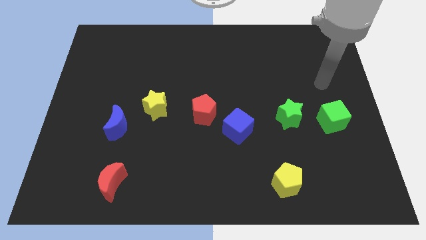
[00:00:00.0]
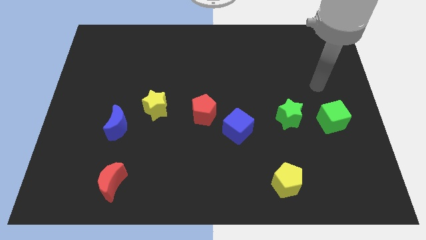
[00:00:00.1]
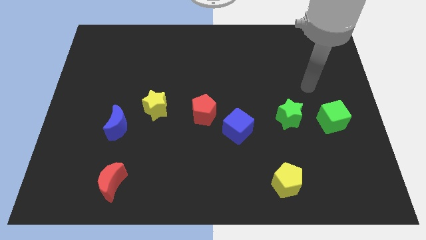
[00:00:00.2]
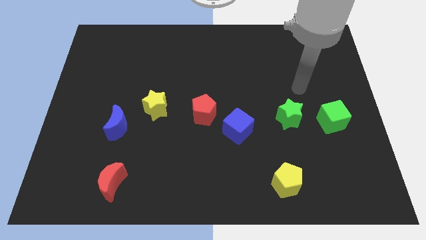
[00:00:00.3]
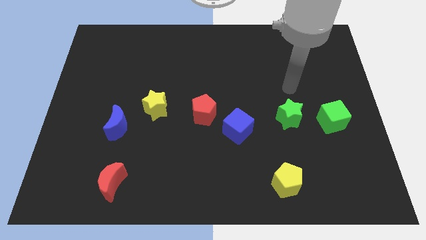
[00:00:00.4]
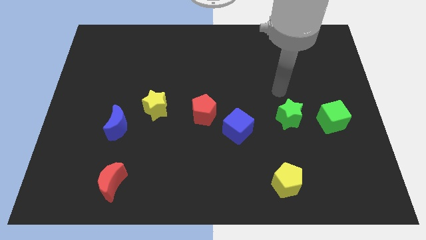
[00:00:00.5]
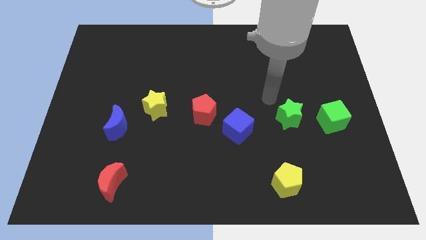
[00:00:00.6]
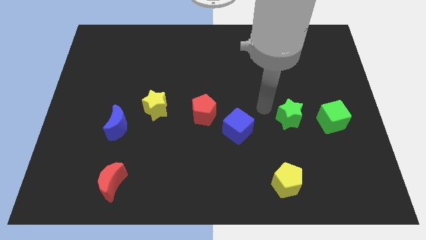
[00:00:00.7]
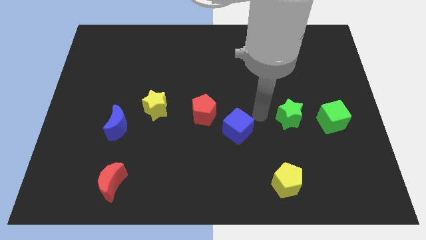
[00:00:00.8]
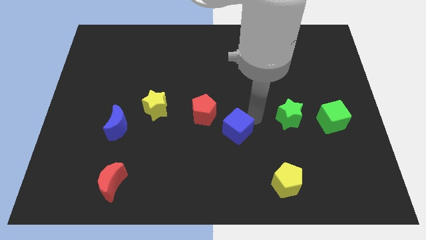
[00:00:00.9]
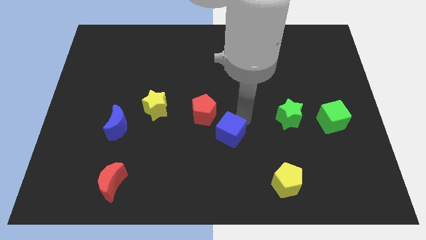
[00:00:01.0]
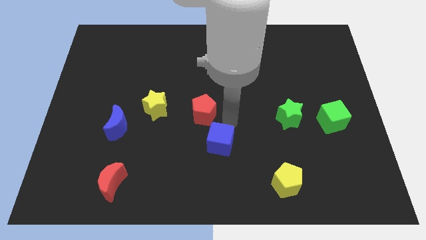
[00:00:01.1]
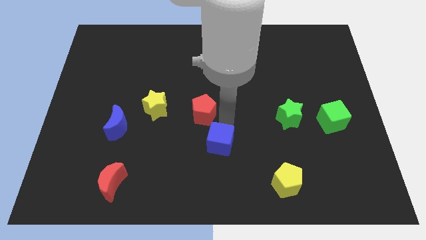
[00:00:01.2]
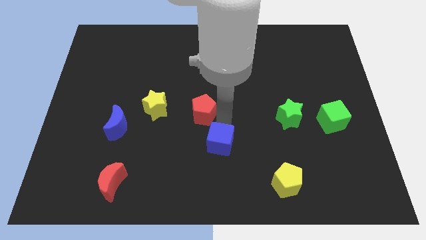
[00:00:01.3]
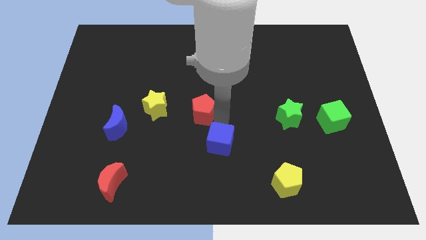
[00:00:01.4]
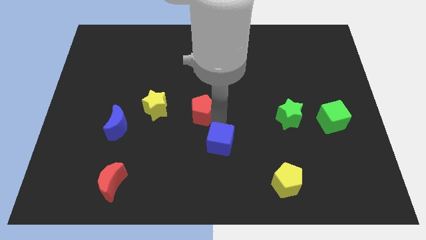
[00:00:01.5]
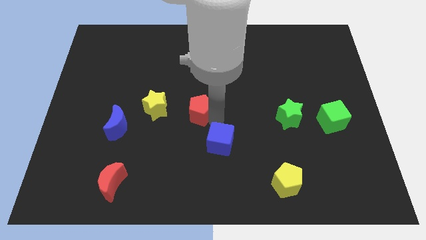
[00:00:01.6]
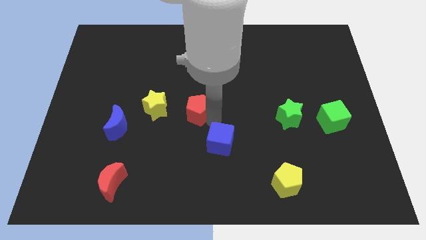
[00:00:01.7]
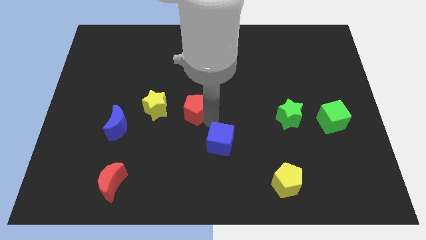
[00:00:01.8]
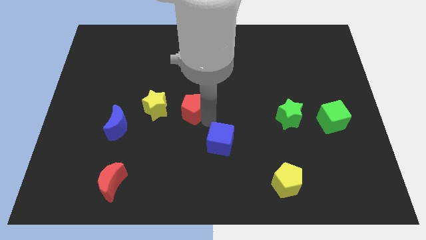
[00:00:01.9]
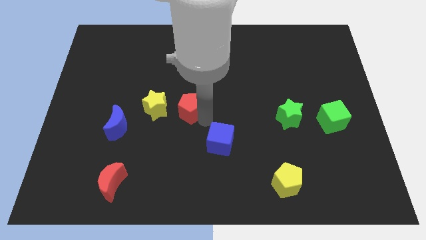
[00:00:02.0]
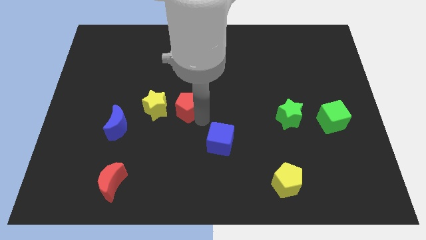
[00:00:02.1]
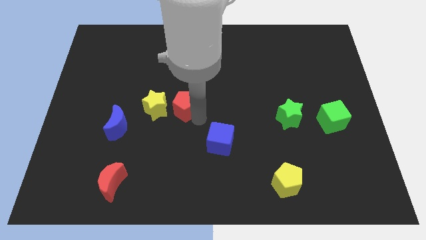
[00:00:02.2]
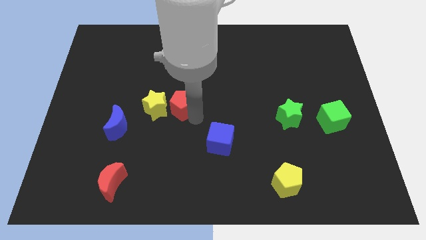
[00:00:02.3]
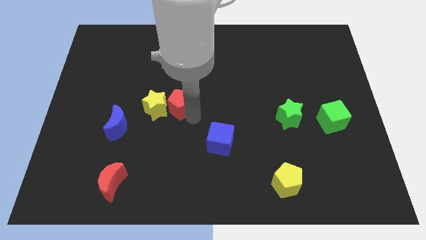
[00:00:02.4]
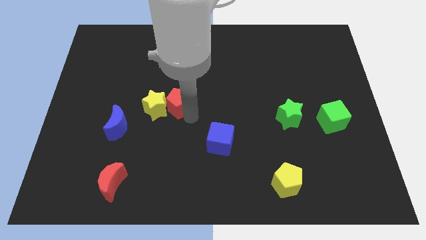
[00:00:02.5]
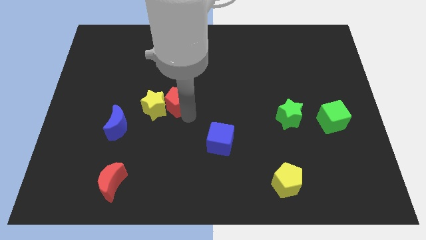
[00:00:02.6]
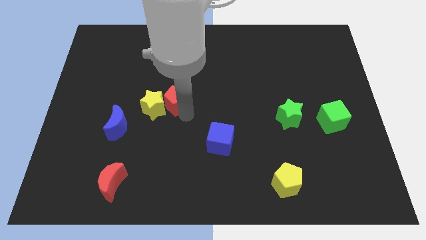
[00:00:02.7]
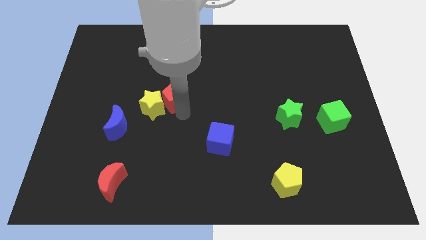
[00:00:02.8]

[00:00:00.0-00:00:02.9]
slide the red pentagon up and left diagonally somewhat

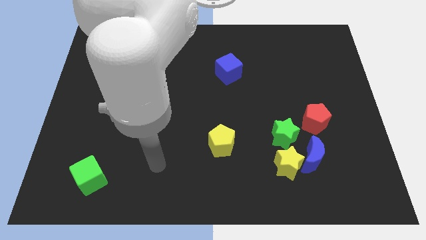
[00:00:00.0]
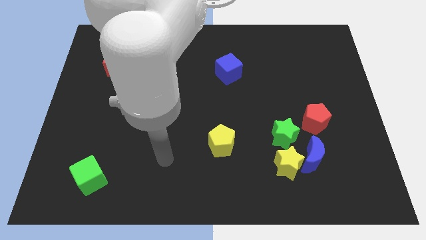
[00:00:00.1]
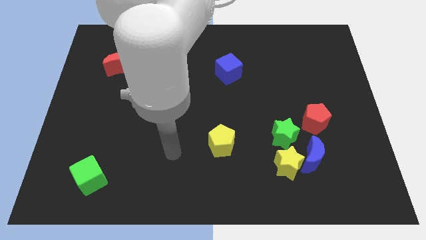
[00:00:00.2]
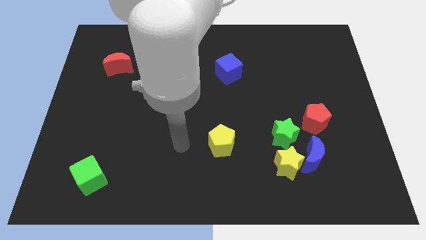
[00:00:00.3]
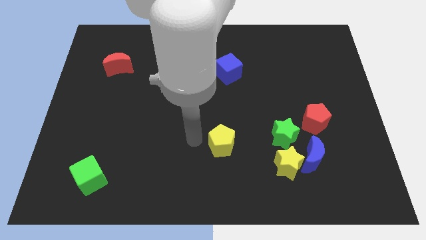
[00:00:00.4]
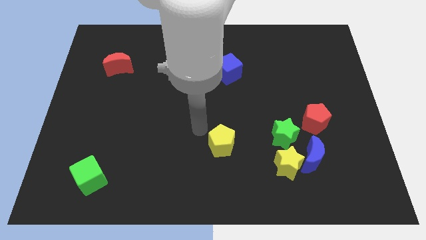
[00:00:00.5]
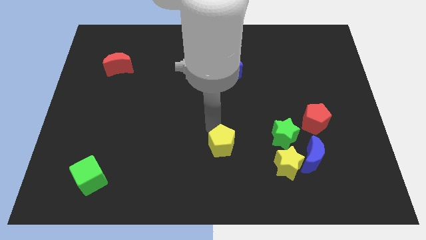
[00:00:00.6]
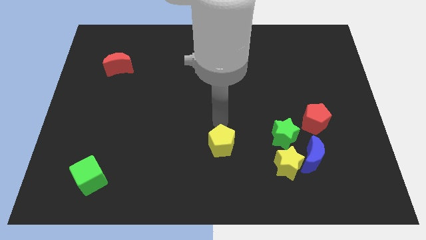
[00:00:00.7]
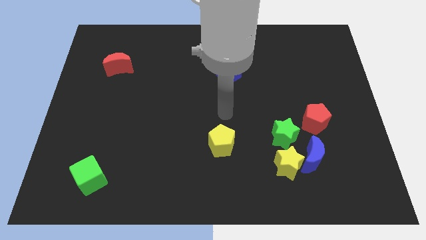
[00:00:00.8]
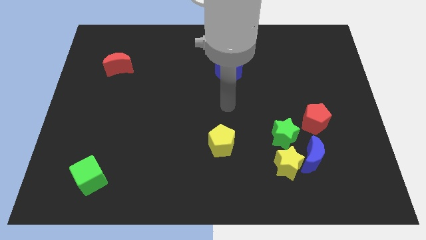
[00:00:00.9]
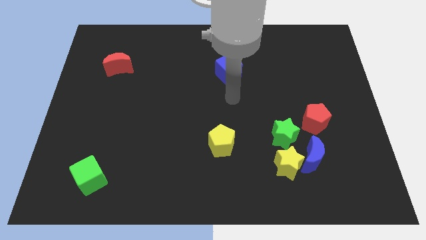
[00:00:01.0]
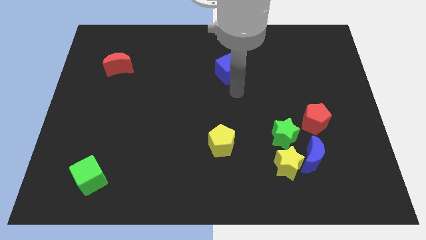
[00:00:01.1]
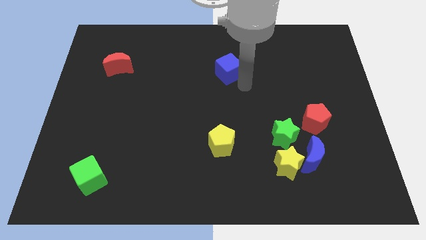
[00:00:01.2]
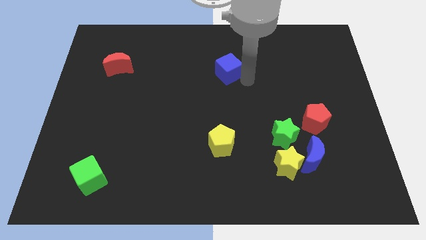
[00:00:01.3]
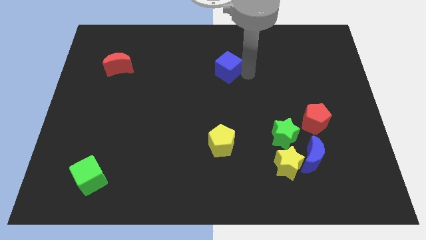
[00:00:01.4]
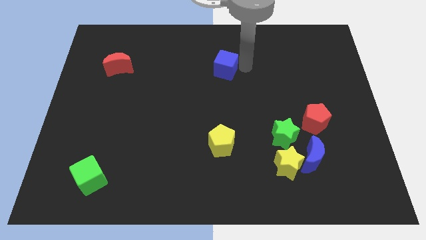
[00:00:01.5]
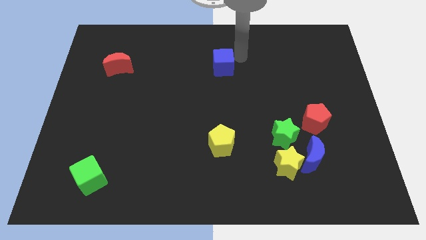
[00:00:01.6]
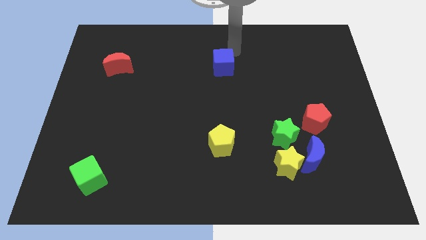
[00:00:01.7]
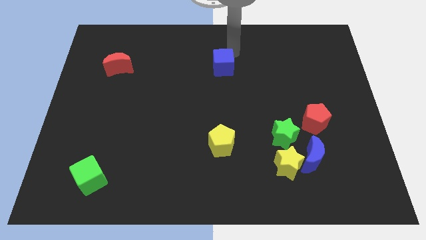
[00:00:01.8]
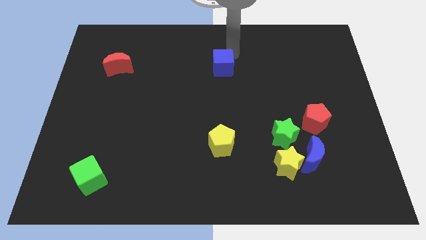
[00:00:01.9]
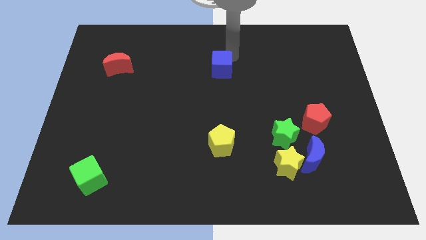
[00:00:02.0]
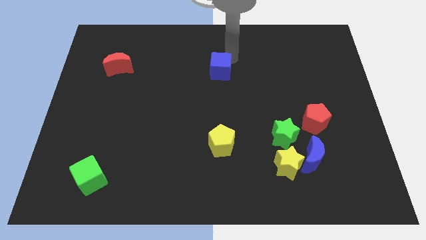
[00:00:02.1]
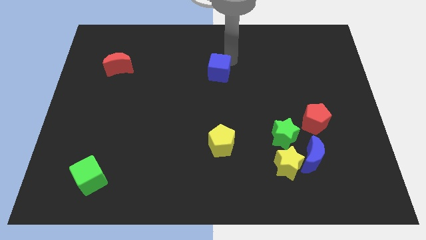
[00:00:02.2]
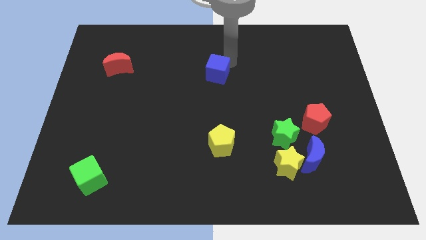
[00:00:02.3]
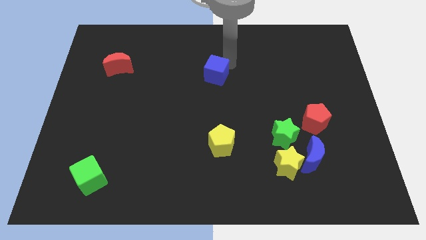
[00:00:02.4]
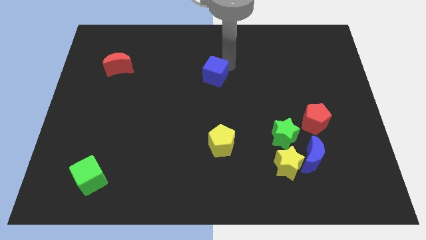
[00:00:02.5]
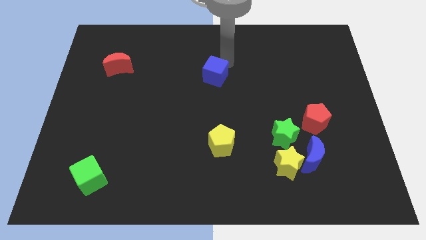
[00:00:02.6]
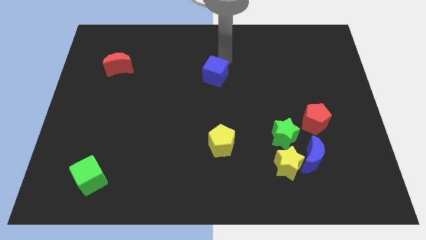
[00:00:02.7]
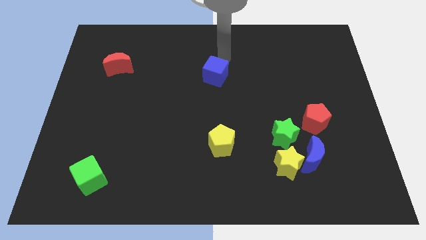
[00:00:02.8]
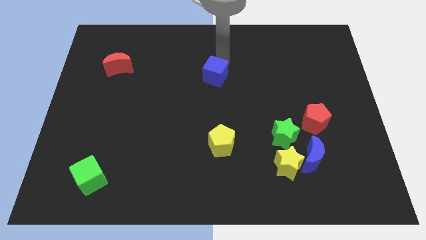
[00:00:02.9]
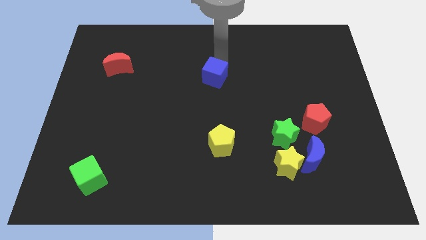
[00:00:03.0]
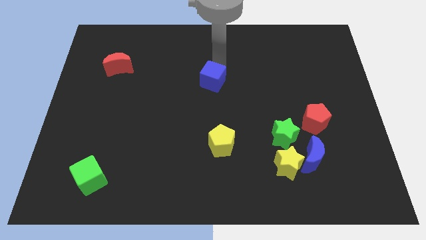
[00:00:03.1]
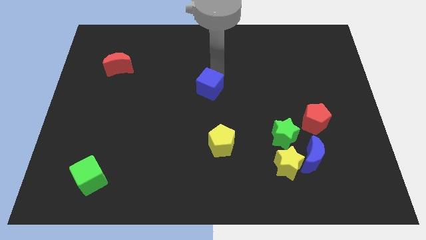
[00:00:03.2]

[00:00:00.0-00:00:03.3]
slightly push the blue cube diagonally down and to the left

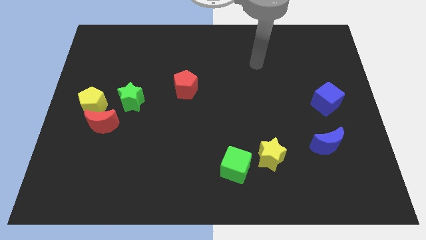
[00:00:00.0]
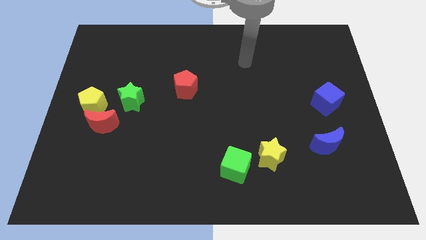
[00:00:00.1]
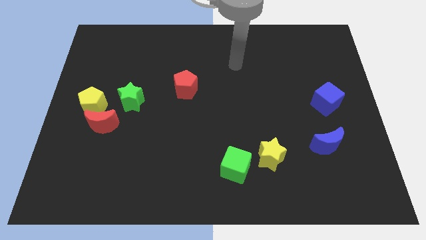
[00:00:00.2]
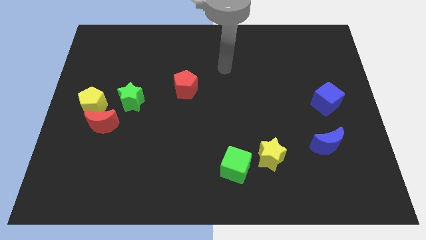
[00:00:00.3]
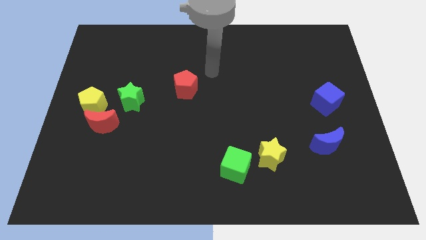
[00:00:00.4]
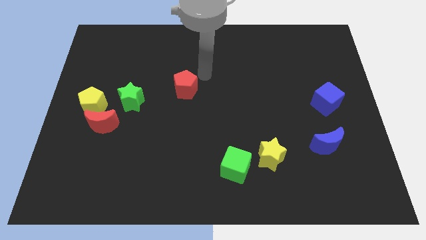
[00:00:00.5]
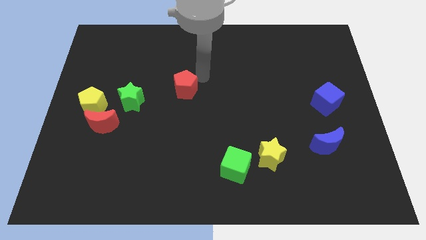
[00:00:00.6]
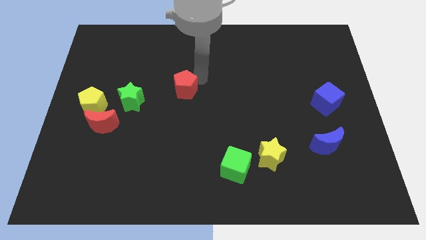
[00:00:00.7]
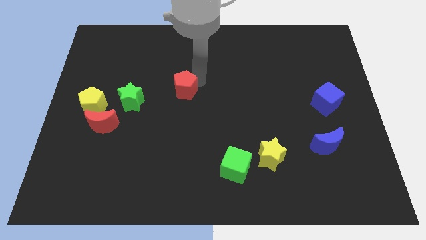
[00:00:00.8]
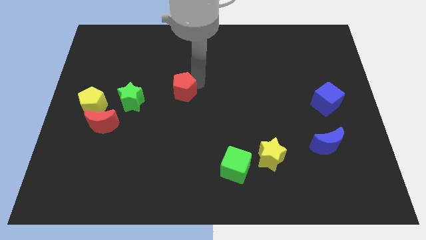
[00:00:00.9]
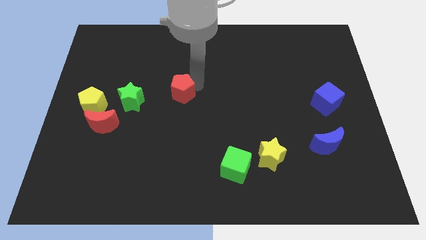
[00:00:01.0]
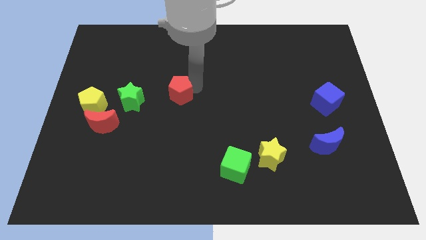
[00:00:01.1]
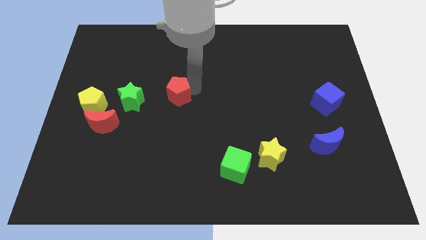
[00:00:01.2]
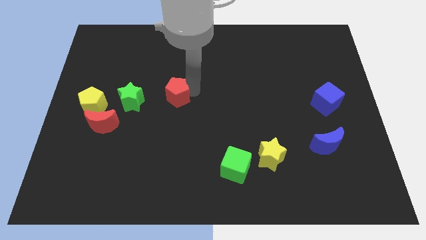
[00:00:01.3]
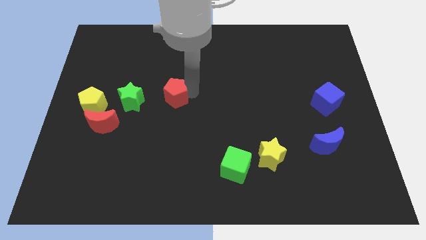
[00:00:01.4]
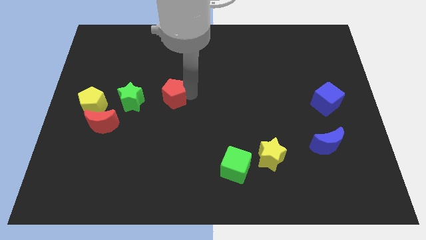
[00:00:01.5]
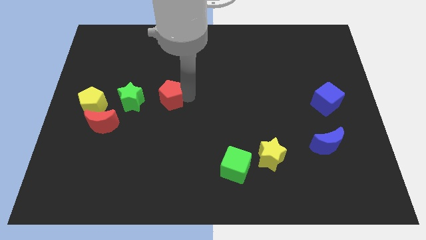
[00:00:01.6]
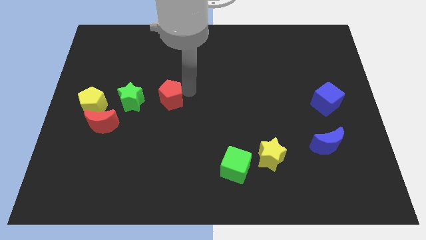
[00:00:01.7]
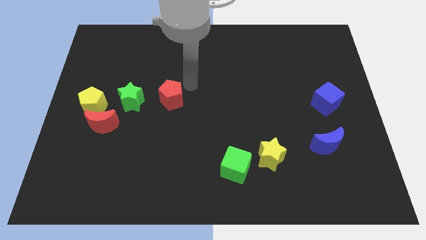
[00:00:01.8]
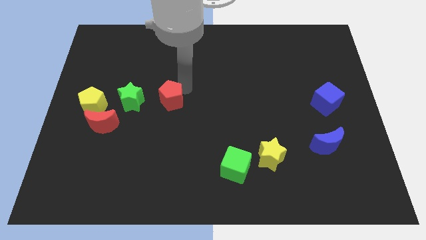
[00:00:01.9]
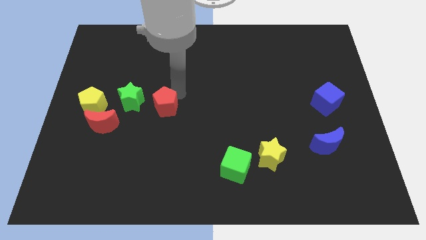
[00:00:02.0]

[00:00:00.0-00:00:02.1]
push the red pentagon downwards and then to the left a little
